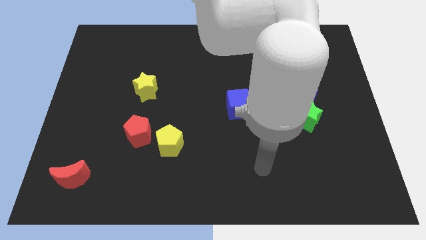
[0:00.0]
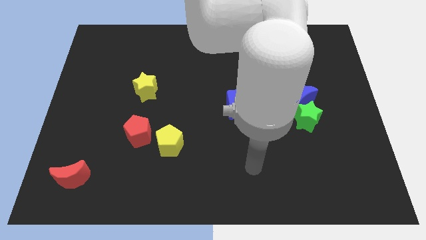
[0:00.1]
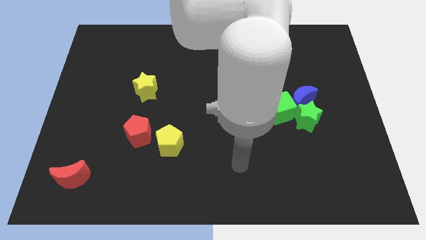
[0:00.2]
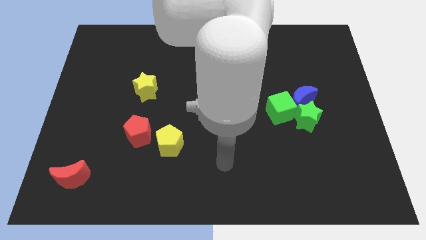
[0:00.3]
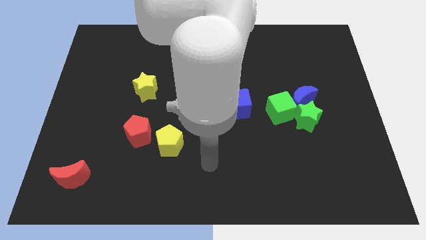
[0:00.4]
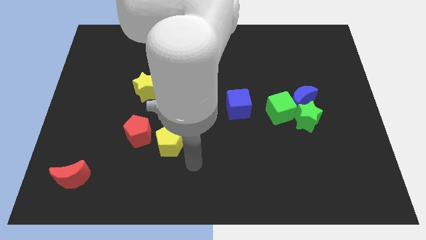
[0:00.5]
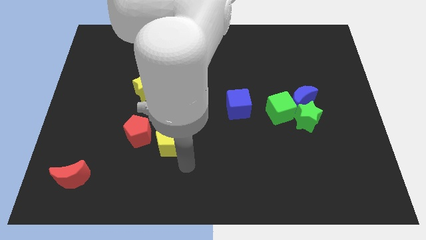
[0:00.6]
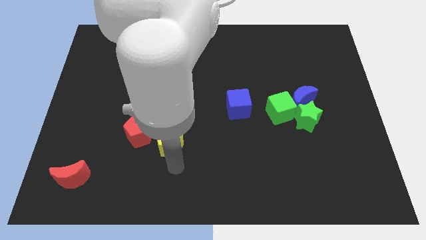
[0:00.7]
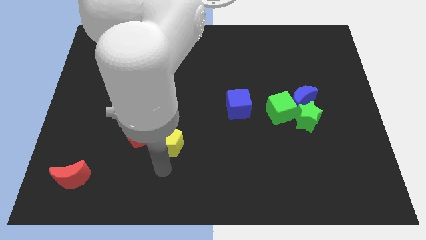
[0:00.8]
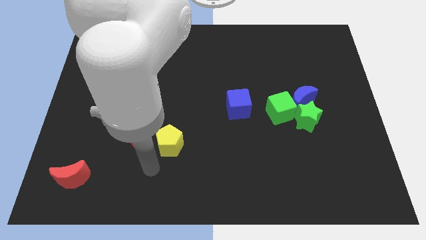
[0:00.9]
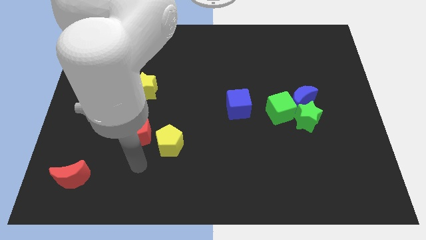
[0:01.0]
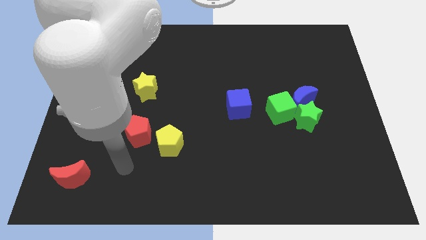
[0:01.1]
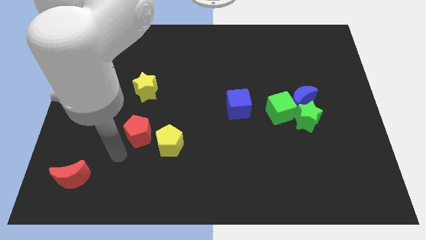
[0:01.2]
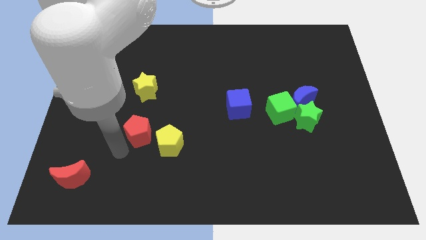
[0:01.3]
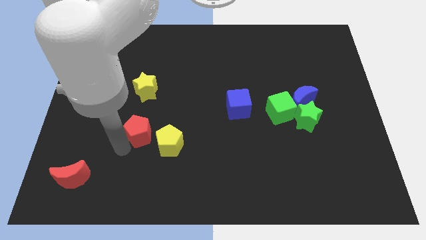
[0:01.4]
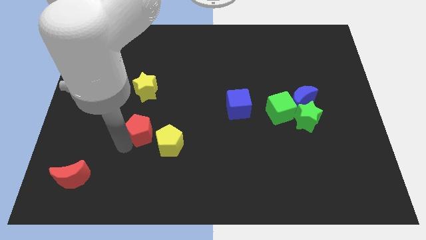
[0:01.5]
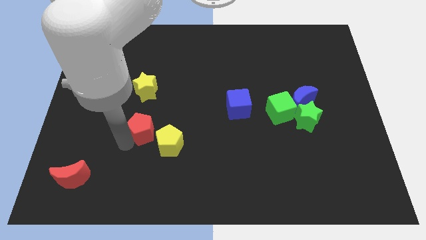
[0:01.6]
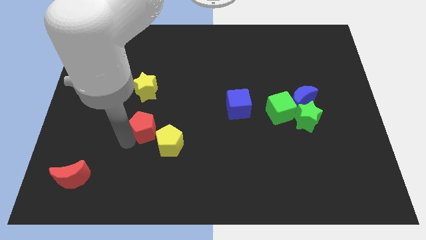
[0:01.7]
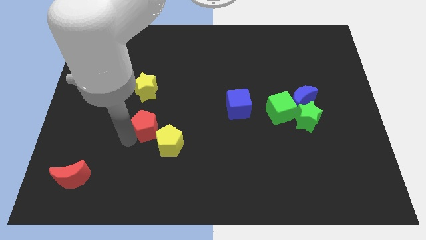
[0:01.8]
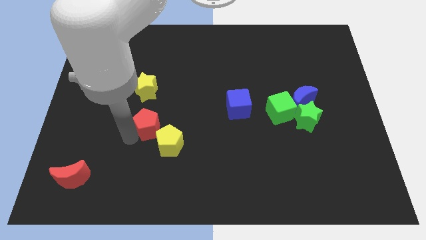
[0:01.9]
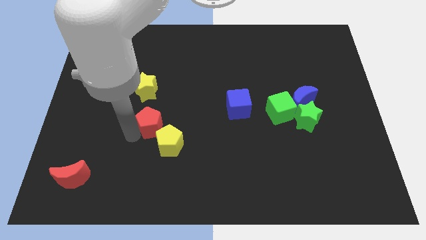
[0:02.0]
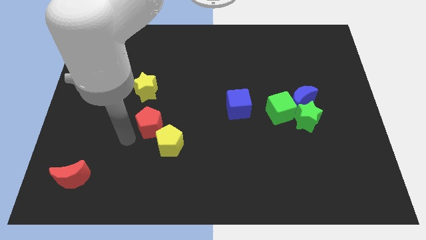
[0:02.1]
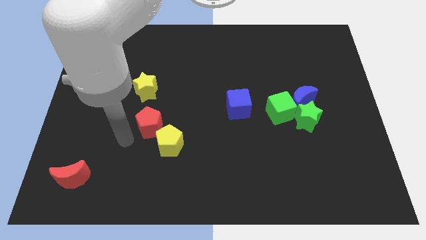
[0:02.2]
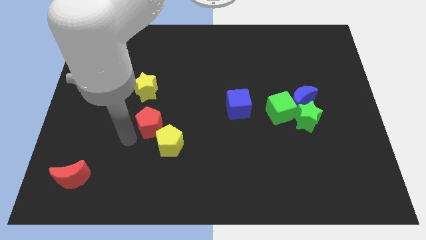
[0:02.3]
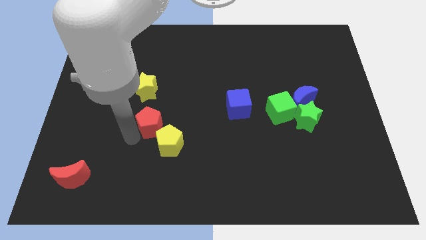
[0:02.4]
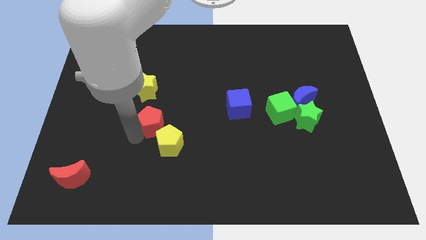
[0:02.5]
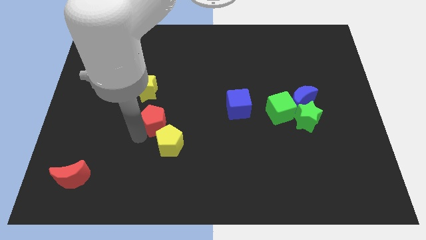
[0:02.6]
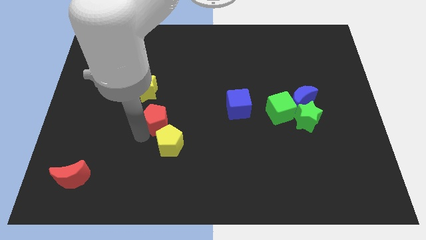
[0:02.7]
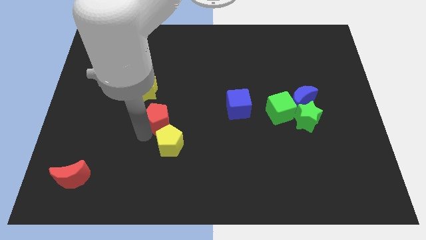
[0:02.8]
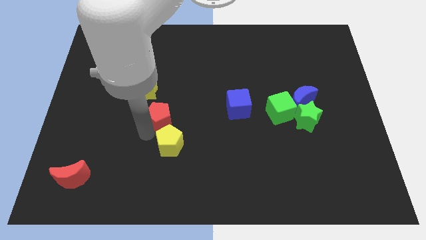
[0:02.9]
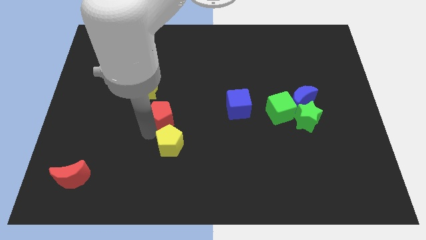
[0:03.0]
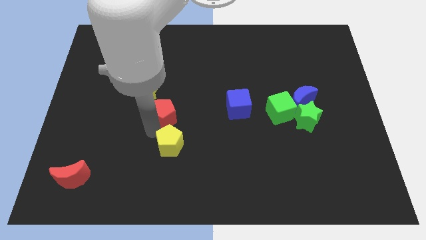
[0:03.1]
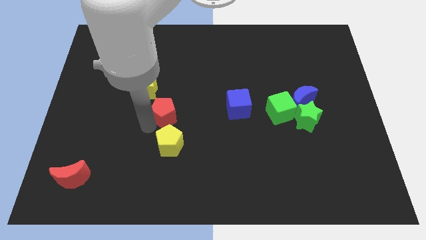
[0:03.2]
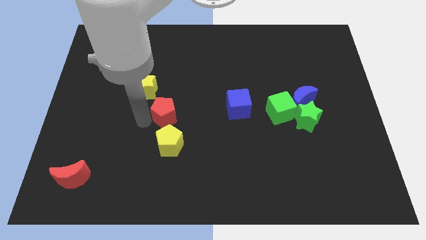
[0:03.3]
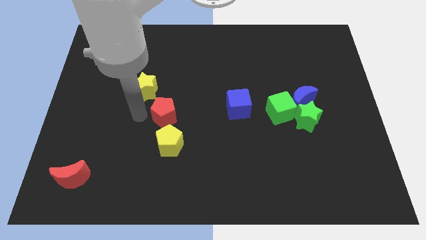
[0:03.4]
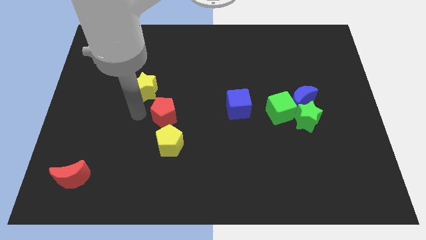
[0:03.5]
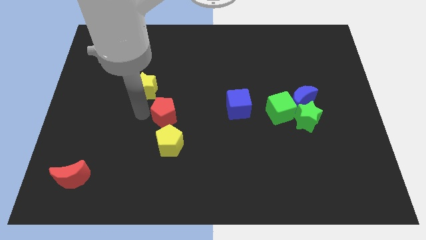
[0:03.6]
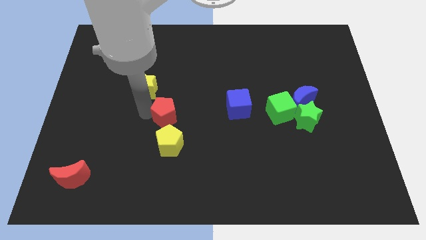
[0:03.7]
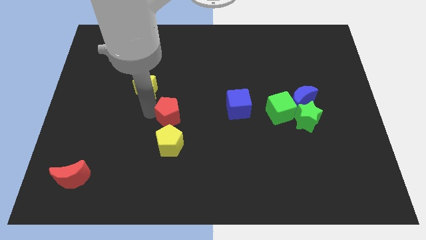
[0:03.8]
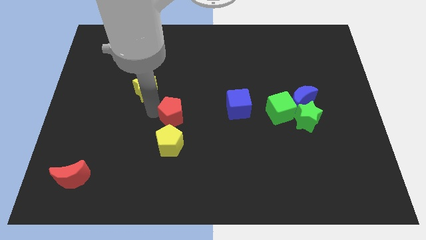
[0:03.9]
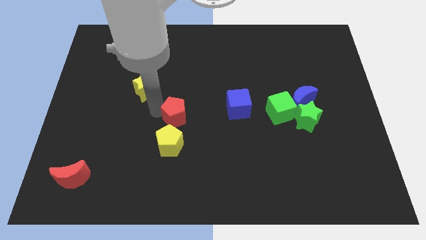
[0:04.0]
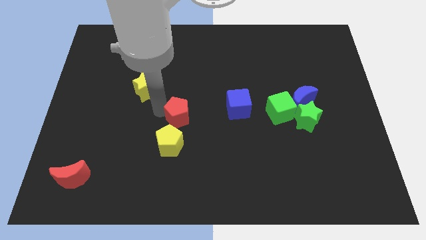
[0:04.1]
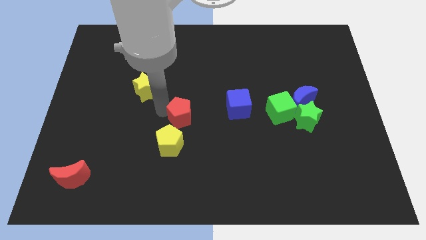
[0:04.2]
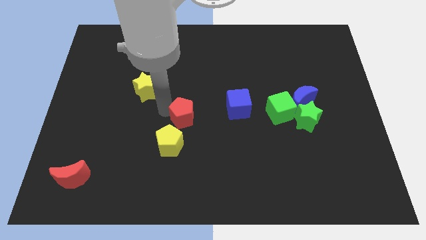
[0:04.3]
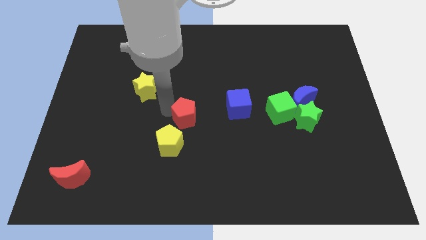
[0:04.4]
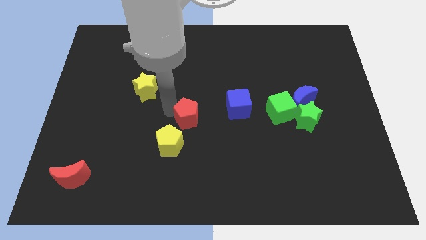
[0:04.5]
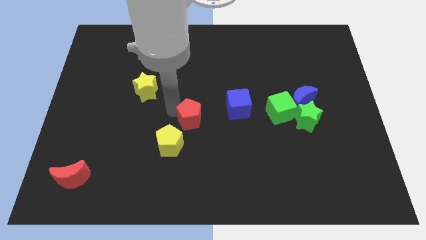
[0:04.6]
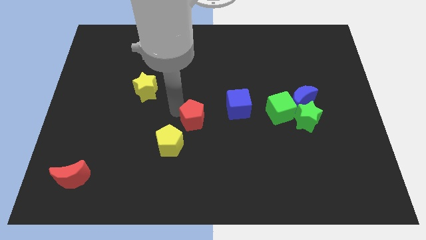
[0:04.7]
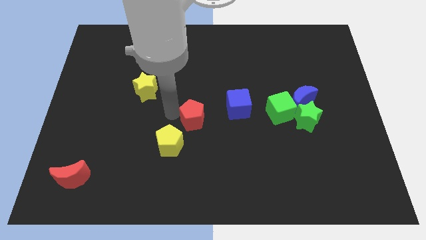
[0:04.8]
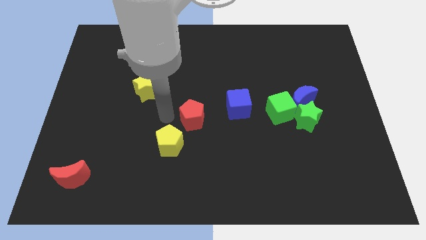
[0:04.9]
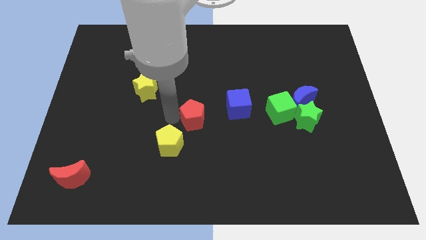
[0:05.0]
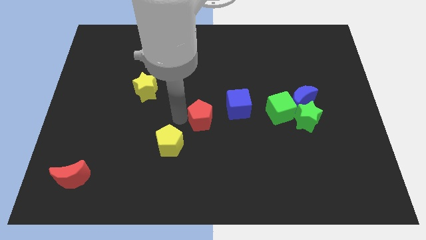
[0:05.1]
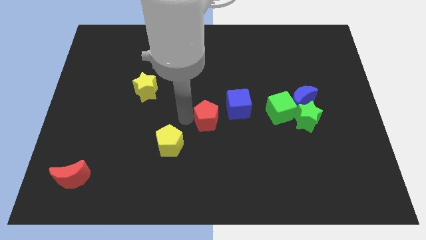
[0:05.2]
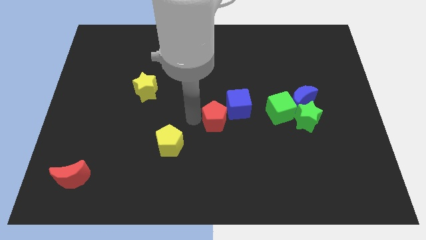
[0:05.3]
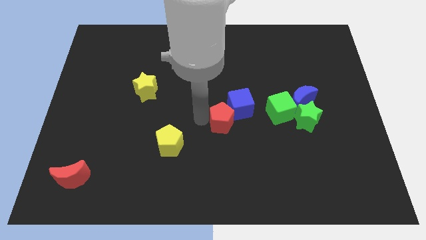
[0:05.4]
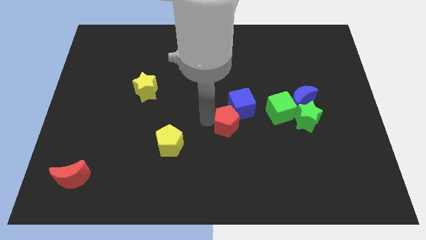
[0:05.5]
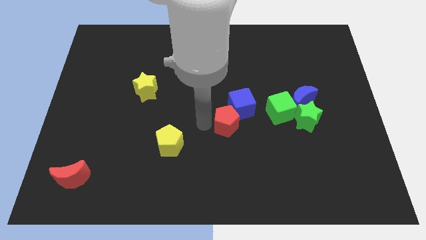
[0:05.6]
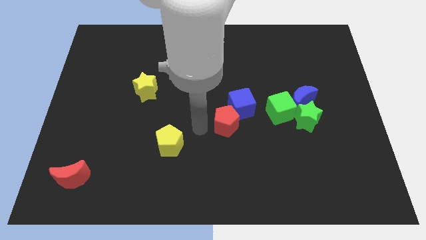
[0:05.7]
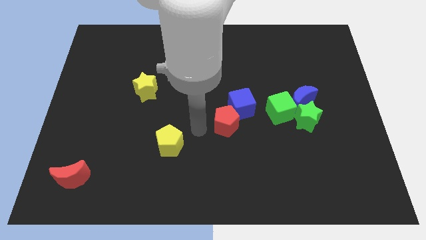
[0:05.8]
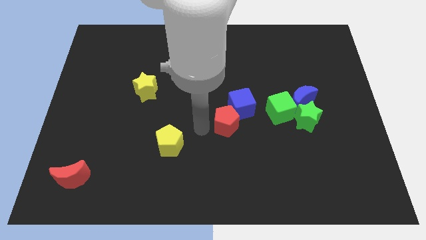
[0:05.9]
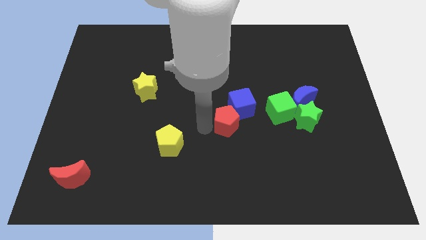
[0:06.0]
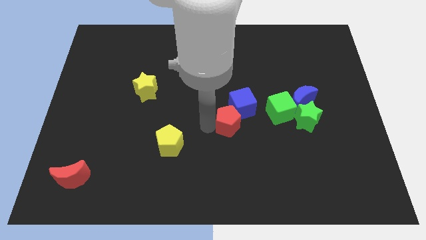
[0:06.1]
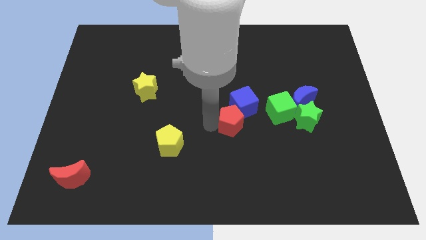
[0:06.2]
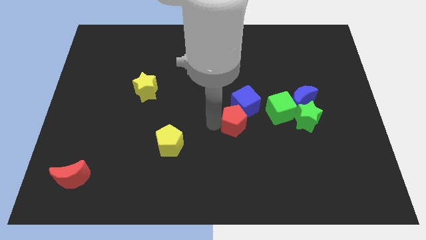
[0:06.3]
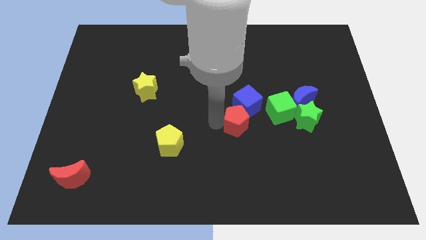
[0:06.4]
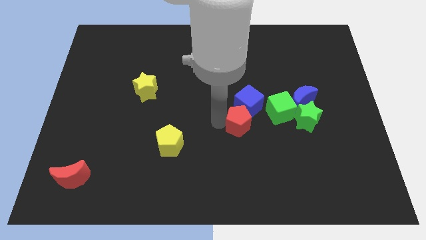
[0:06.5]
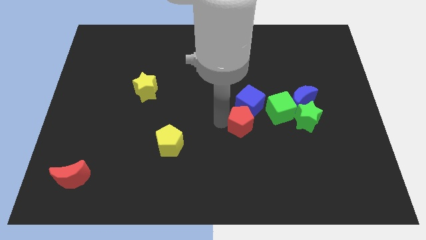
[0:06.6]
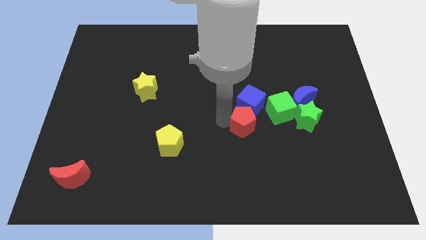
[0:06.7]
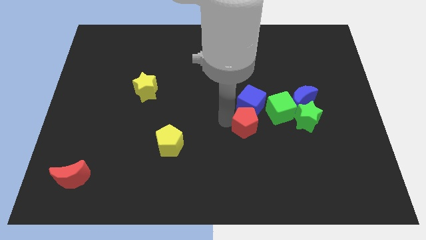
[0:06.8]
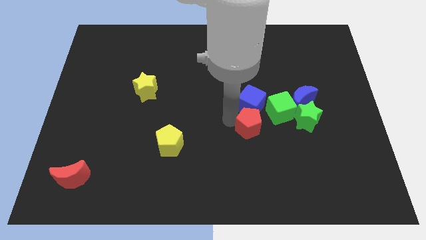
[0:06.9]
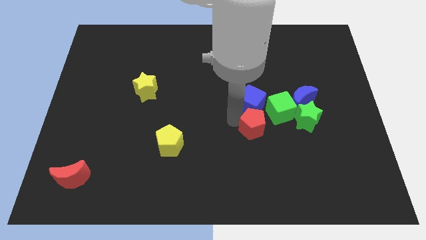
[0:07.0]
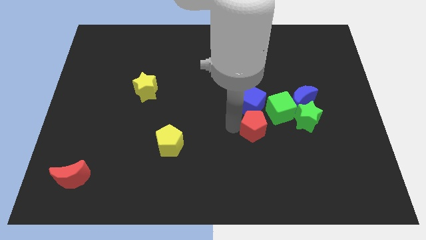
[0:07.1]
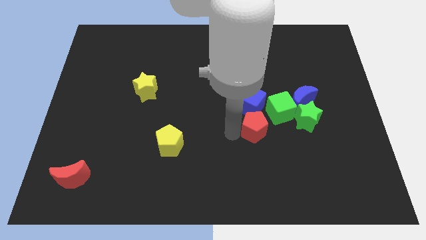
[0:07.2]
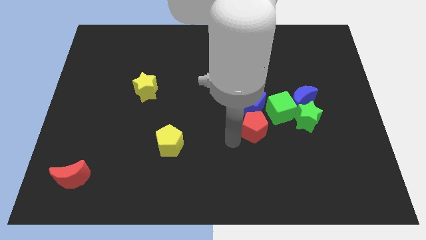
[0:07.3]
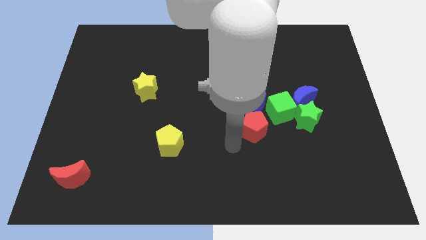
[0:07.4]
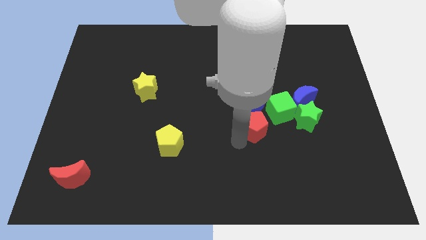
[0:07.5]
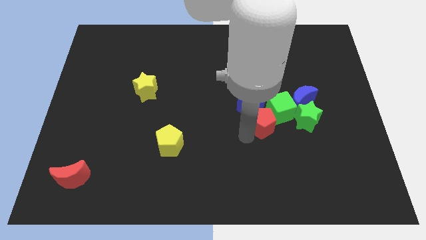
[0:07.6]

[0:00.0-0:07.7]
put the red pentagon to the green cube
